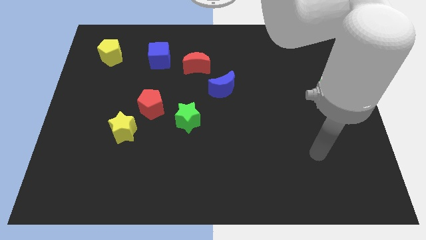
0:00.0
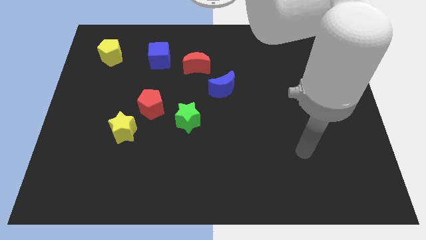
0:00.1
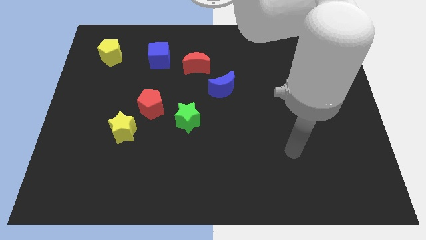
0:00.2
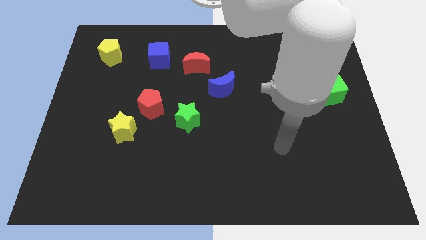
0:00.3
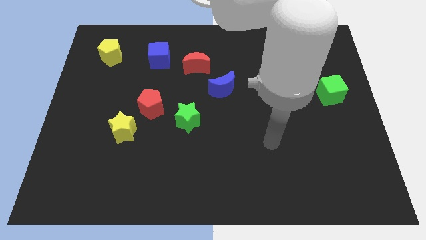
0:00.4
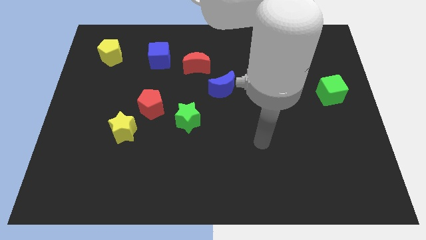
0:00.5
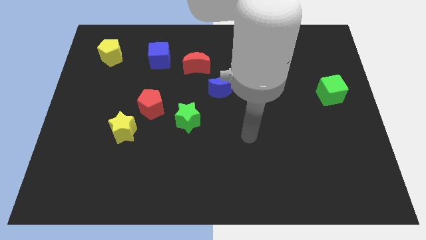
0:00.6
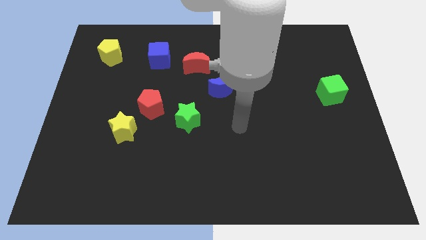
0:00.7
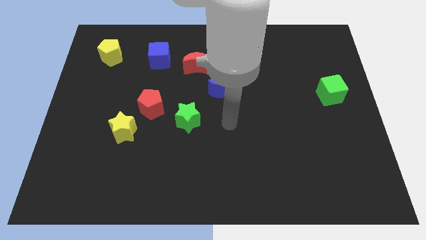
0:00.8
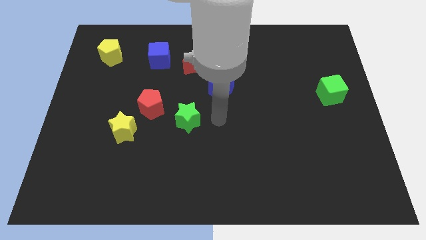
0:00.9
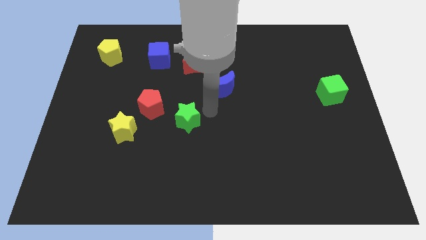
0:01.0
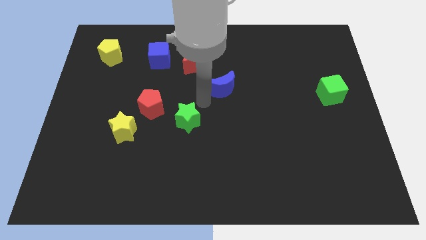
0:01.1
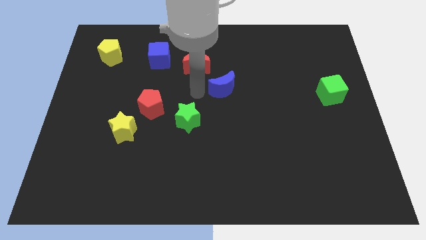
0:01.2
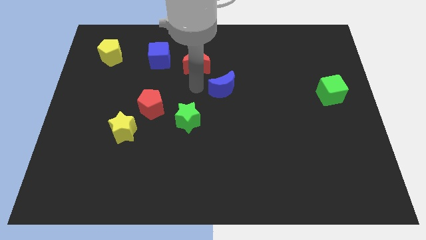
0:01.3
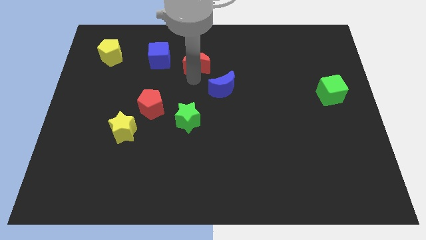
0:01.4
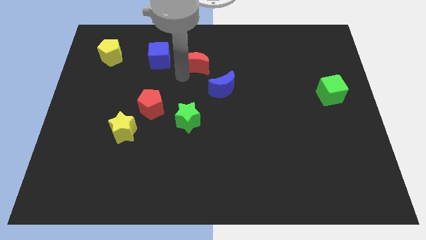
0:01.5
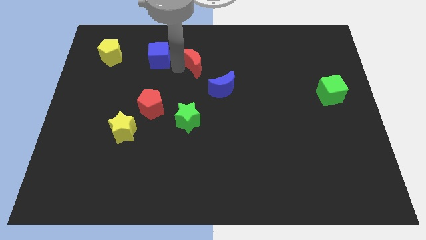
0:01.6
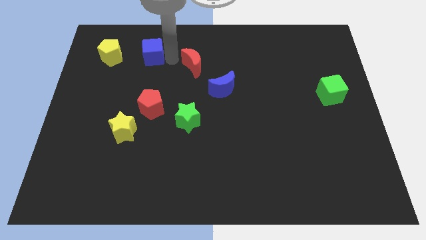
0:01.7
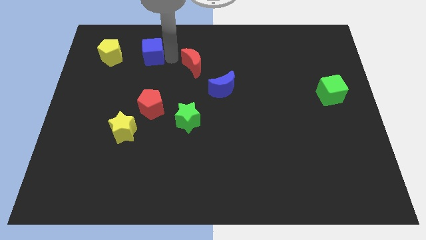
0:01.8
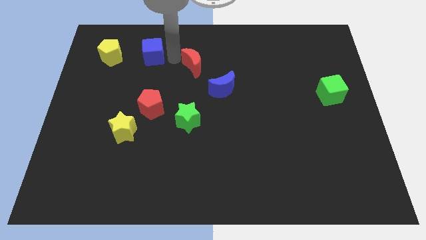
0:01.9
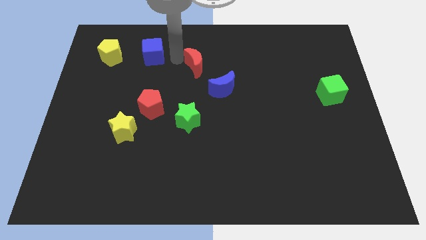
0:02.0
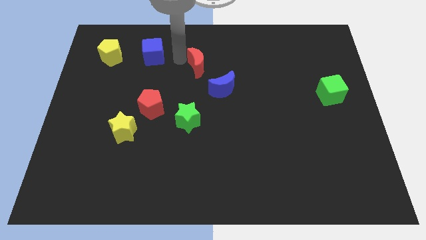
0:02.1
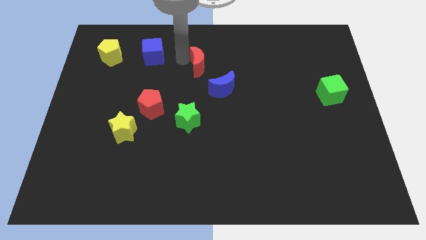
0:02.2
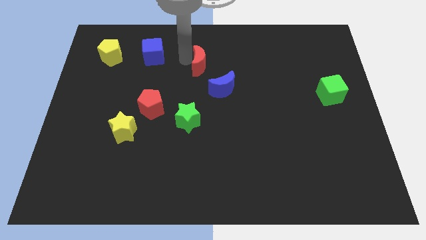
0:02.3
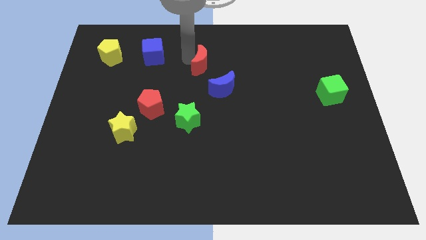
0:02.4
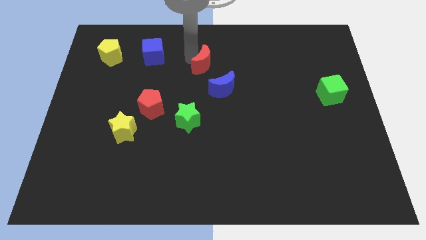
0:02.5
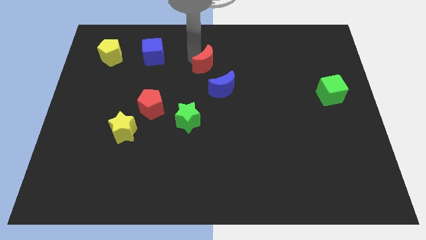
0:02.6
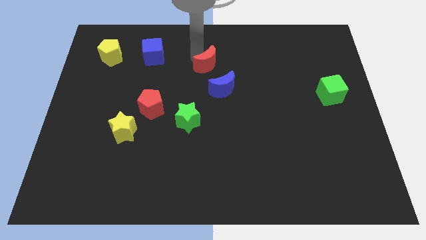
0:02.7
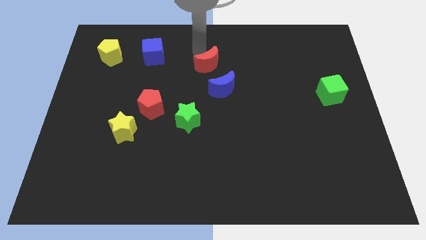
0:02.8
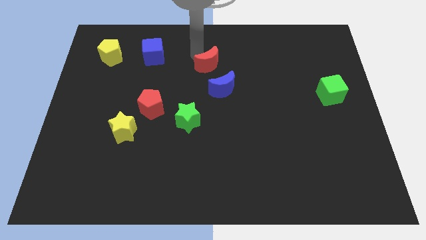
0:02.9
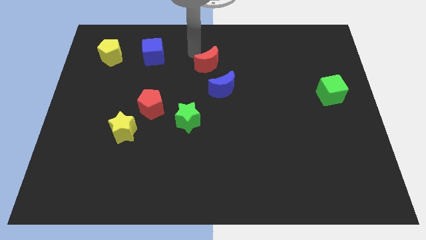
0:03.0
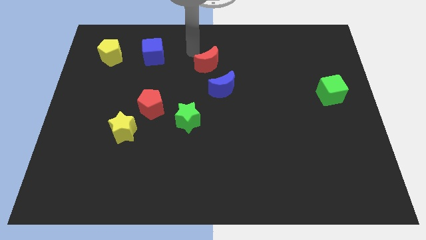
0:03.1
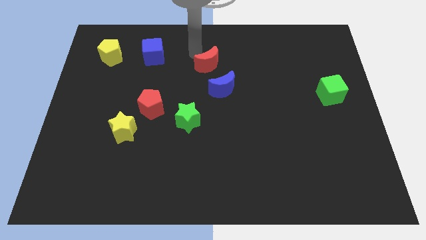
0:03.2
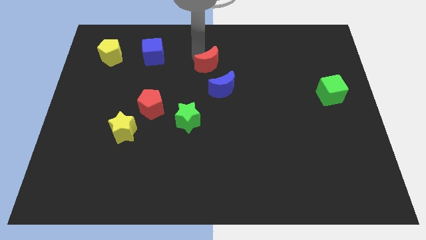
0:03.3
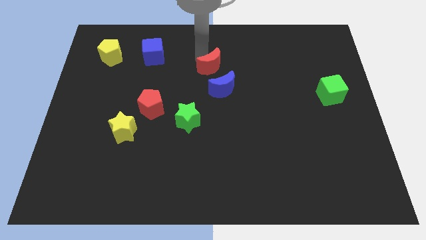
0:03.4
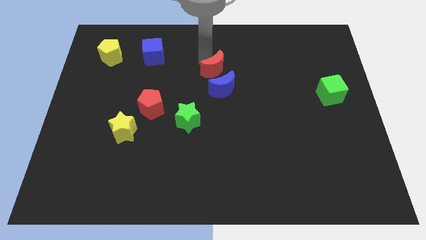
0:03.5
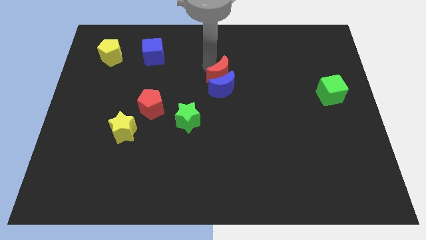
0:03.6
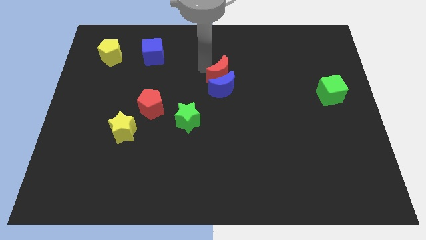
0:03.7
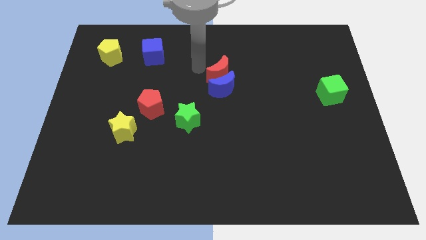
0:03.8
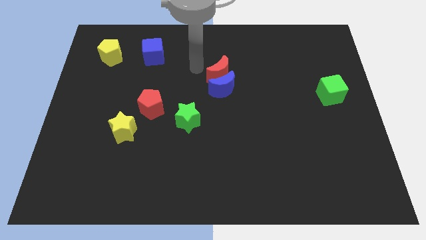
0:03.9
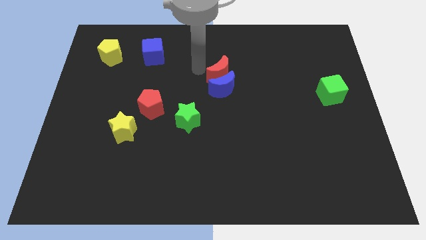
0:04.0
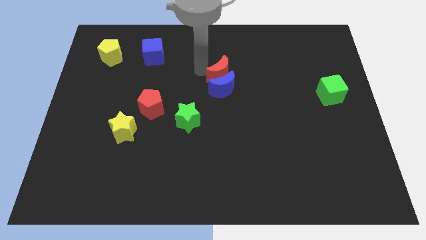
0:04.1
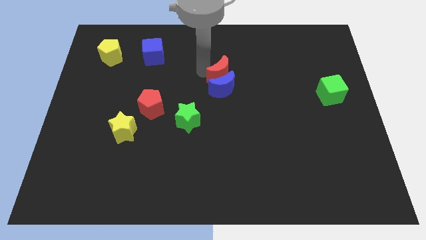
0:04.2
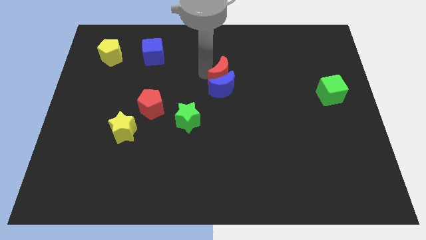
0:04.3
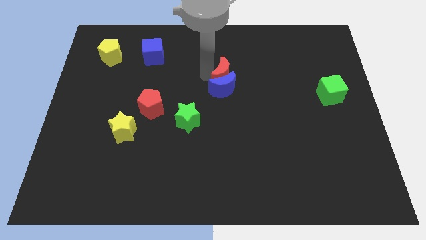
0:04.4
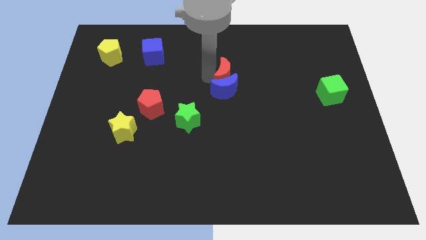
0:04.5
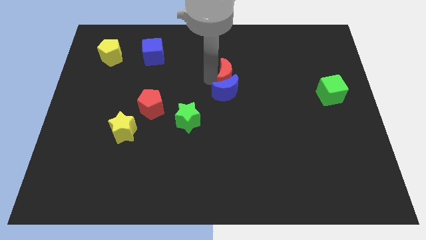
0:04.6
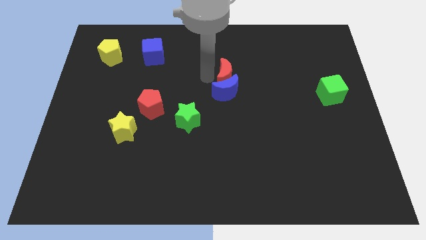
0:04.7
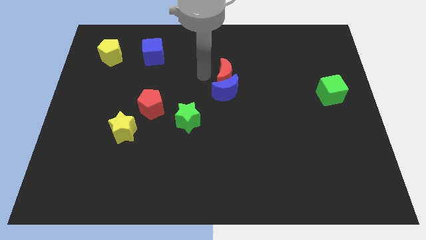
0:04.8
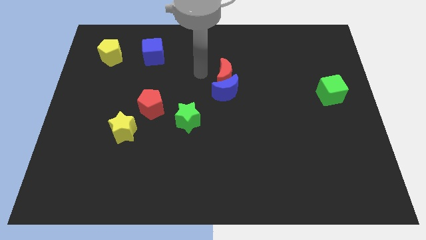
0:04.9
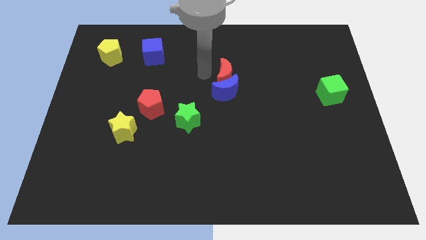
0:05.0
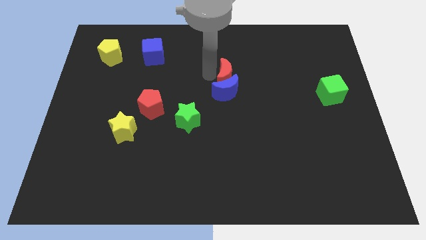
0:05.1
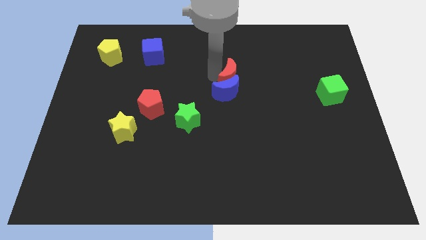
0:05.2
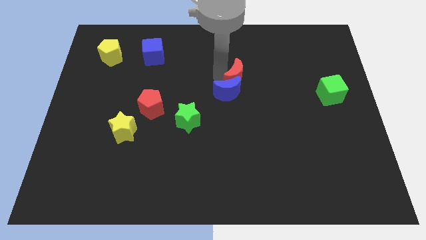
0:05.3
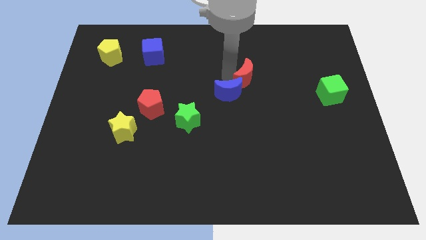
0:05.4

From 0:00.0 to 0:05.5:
push the red moon to the right of the blue moon
